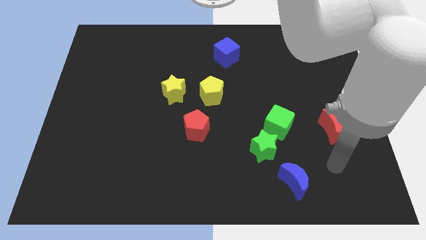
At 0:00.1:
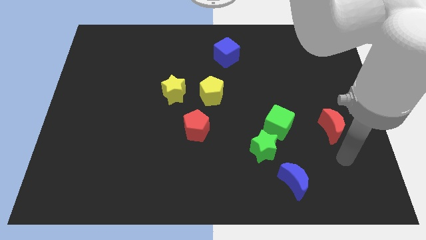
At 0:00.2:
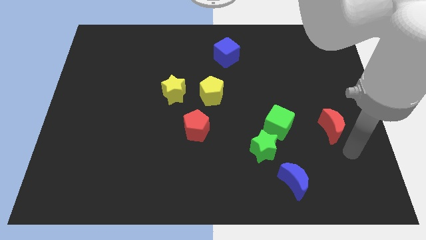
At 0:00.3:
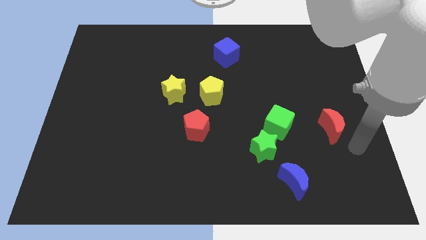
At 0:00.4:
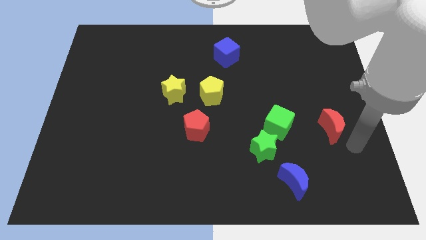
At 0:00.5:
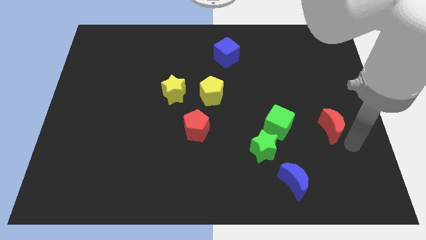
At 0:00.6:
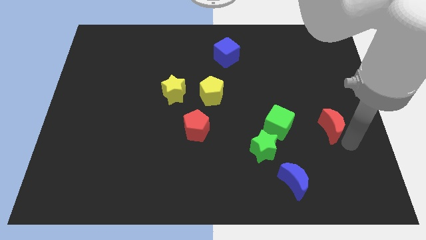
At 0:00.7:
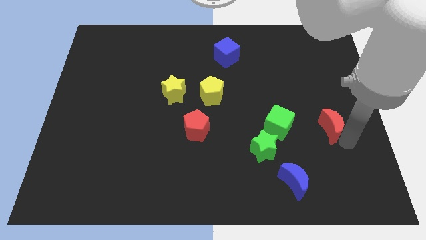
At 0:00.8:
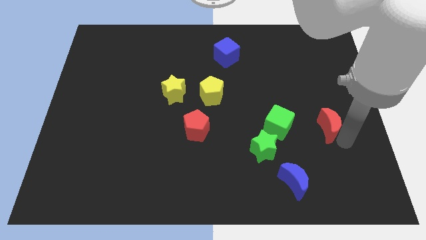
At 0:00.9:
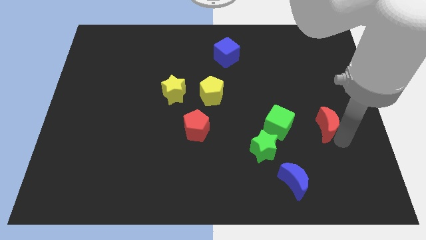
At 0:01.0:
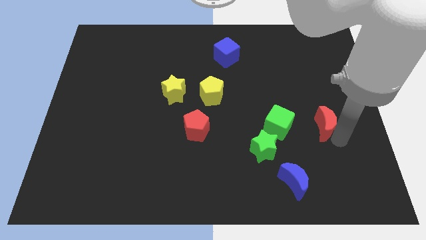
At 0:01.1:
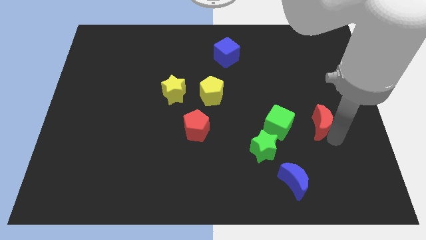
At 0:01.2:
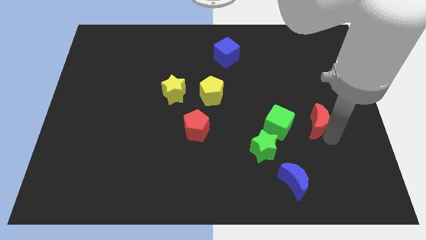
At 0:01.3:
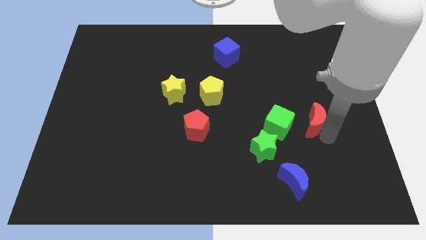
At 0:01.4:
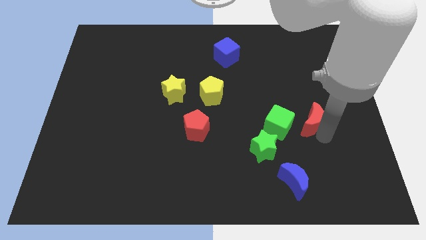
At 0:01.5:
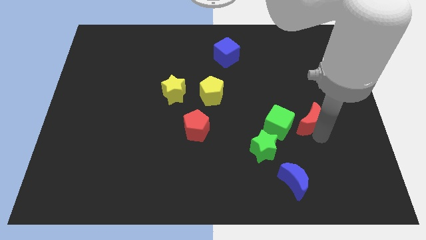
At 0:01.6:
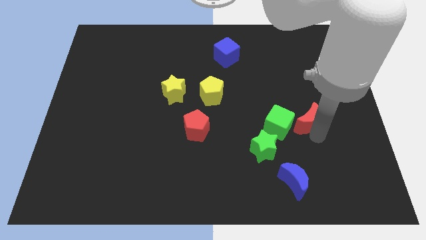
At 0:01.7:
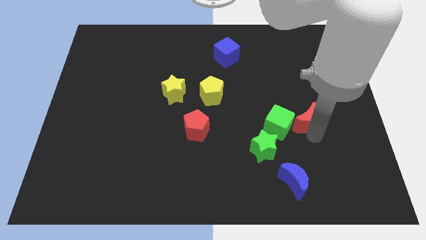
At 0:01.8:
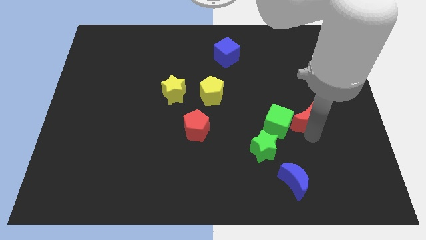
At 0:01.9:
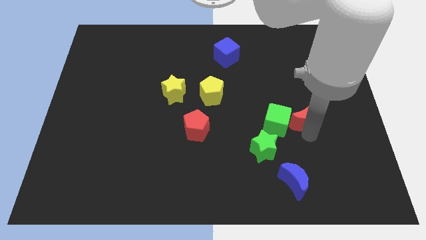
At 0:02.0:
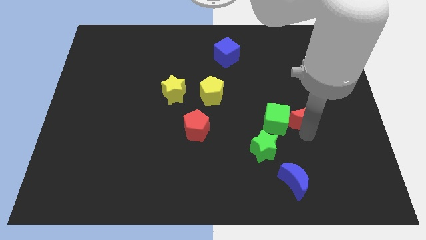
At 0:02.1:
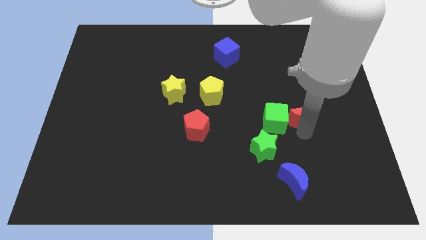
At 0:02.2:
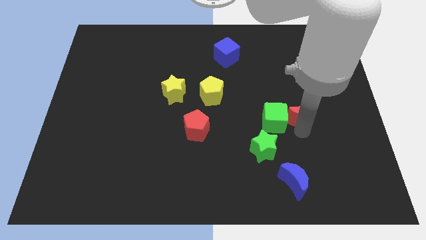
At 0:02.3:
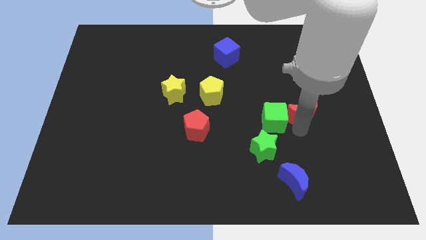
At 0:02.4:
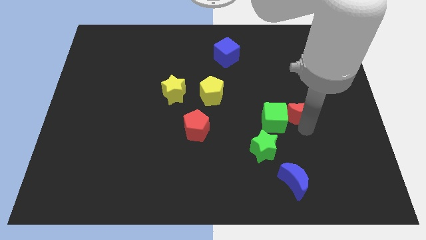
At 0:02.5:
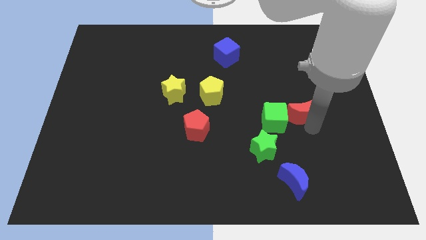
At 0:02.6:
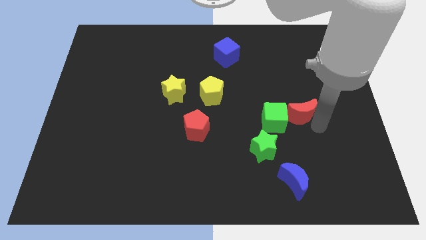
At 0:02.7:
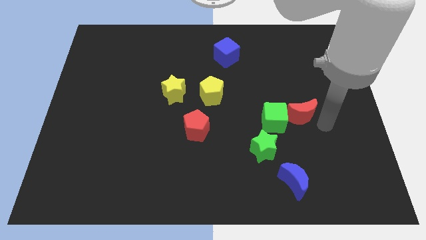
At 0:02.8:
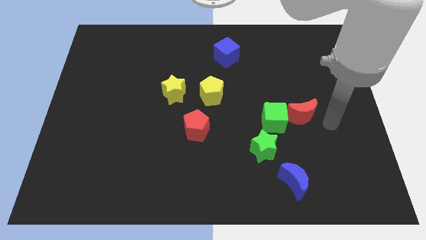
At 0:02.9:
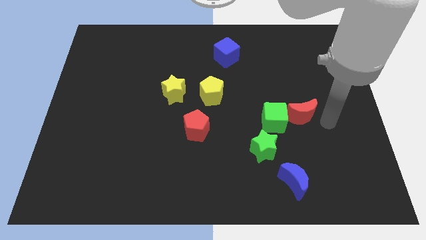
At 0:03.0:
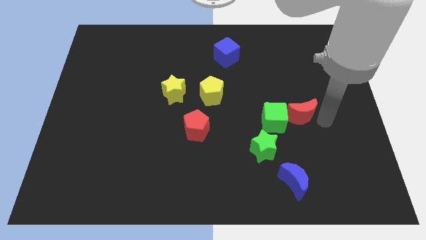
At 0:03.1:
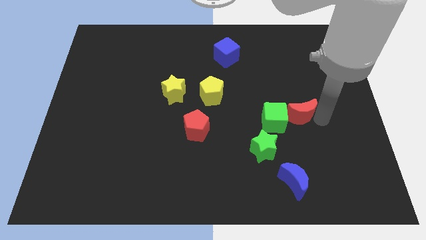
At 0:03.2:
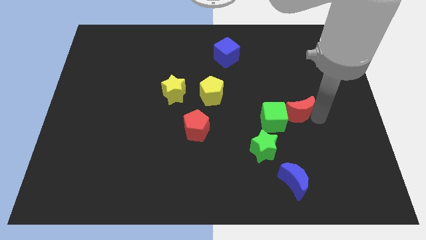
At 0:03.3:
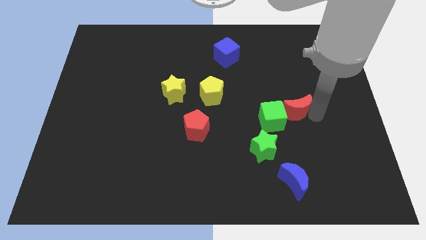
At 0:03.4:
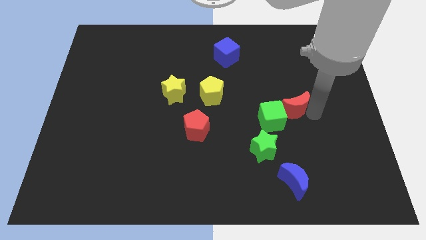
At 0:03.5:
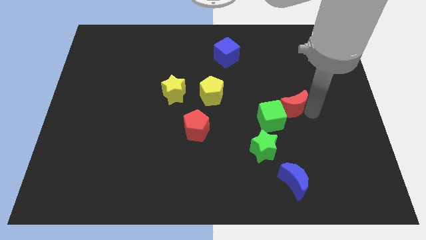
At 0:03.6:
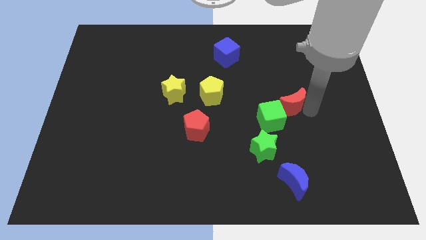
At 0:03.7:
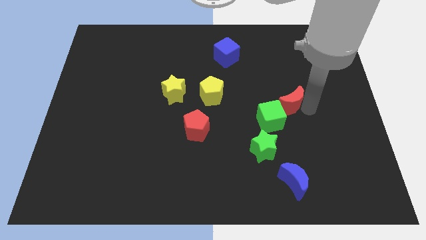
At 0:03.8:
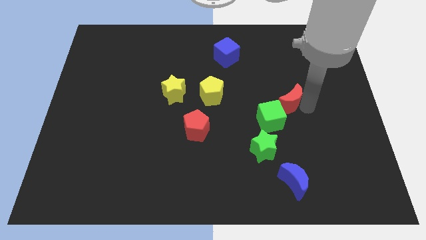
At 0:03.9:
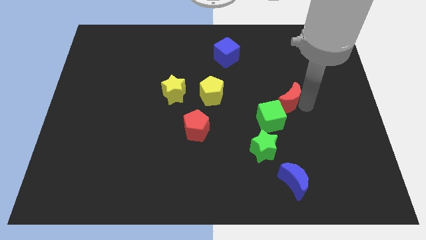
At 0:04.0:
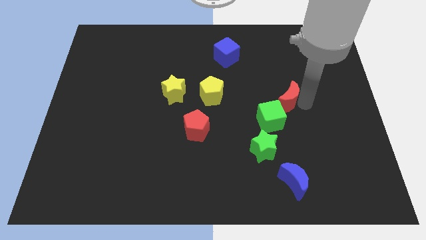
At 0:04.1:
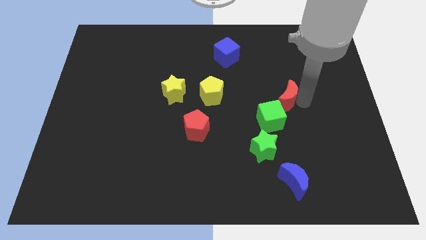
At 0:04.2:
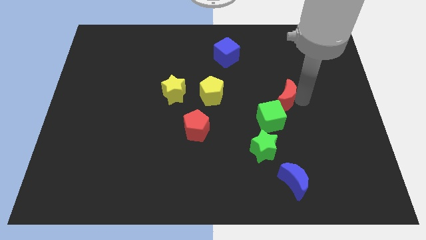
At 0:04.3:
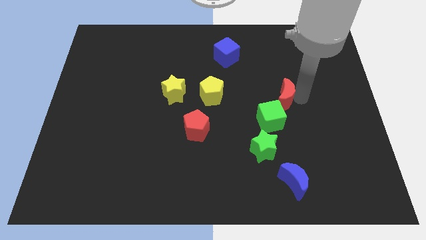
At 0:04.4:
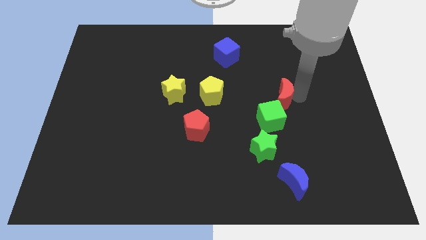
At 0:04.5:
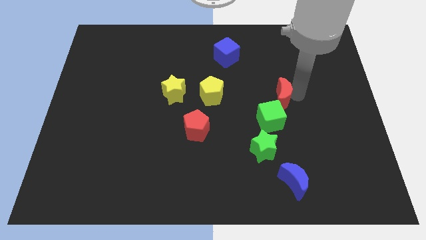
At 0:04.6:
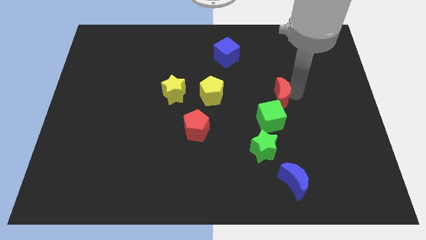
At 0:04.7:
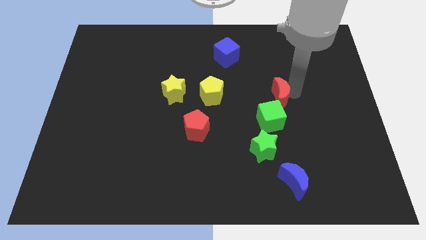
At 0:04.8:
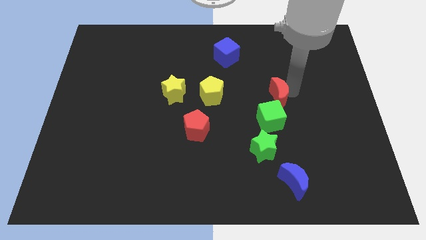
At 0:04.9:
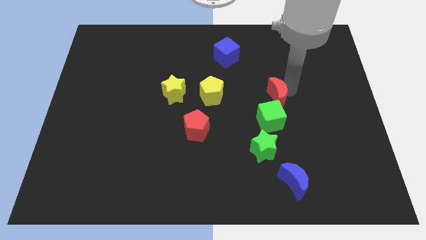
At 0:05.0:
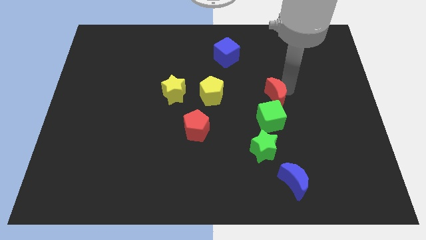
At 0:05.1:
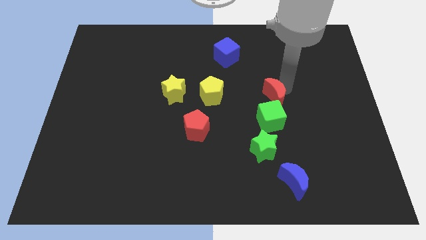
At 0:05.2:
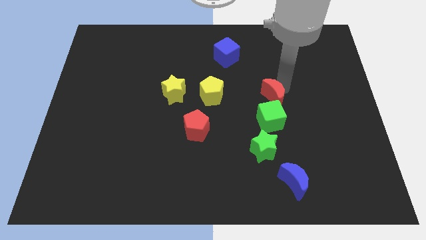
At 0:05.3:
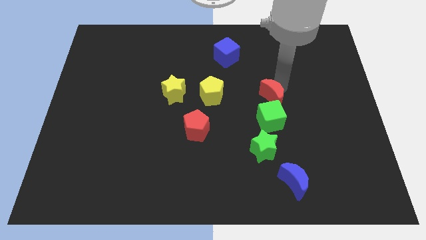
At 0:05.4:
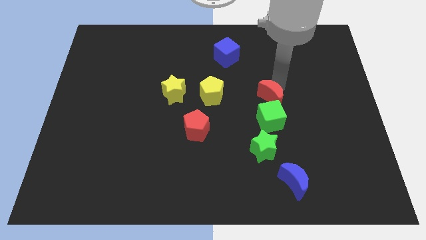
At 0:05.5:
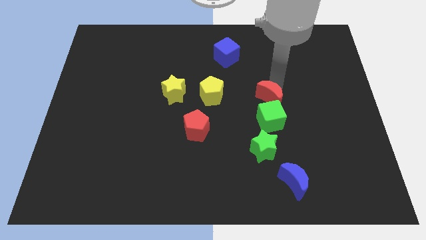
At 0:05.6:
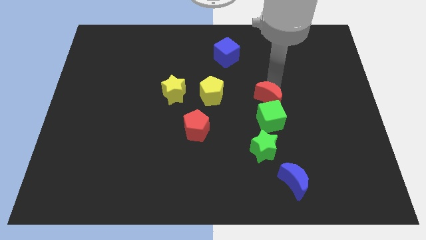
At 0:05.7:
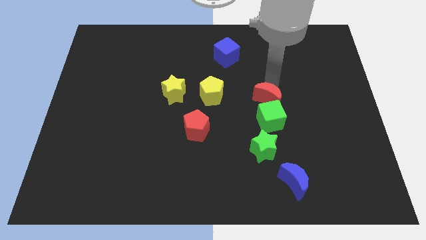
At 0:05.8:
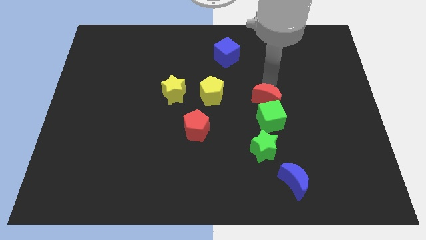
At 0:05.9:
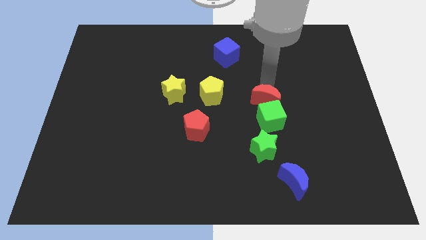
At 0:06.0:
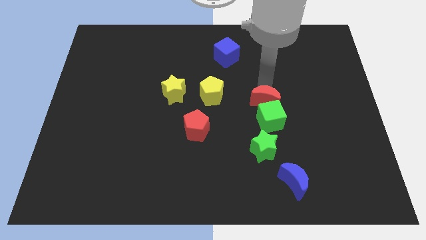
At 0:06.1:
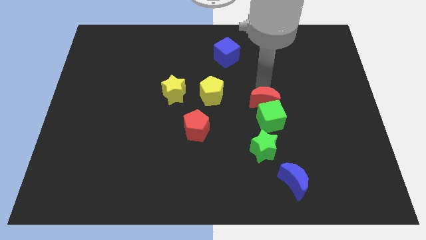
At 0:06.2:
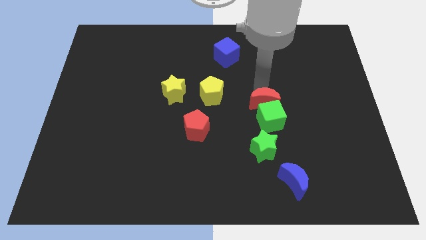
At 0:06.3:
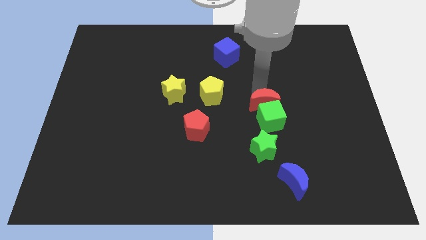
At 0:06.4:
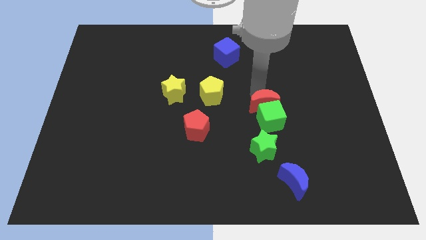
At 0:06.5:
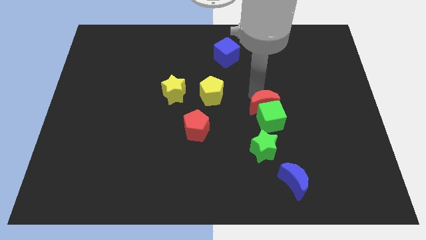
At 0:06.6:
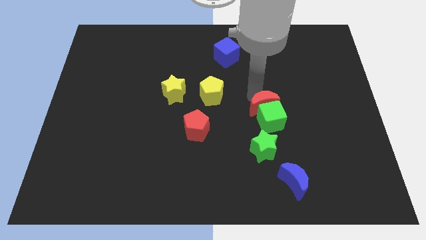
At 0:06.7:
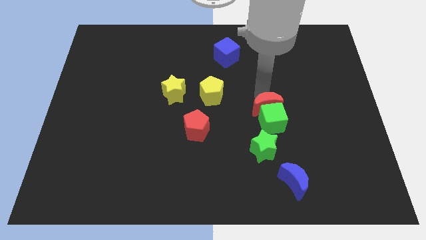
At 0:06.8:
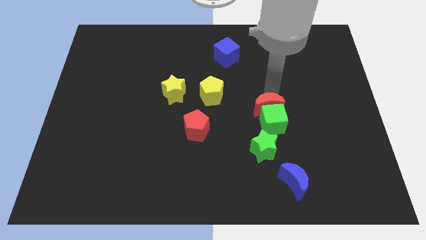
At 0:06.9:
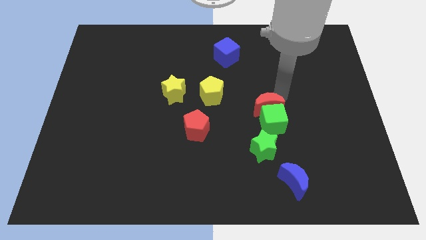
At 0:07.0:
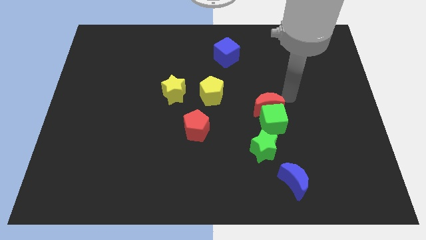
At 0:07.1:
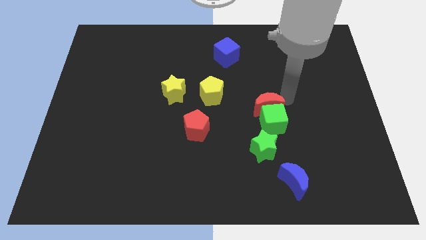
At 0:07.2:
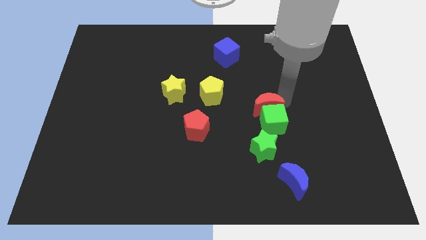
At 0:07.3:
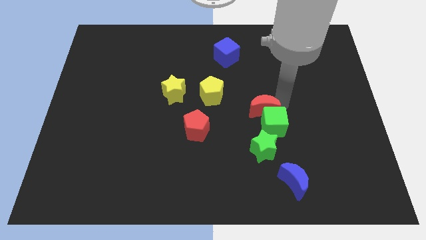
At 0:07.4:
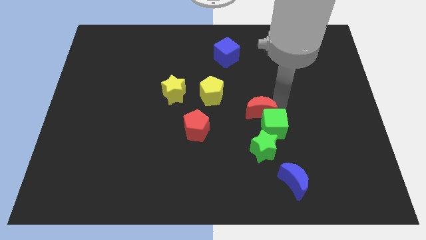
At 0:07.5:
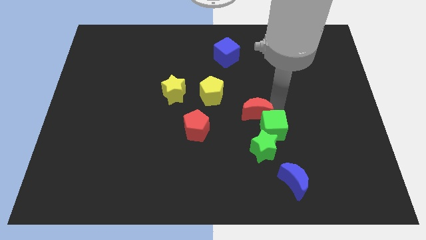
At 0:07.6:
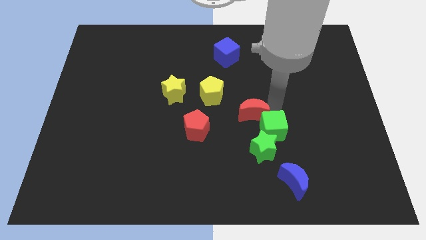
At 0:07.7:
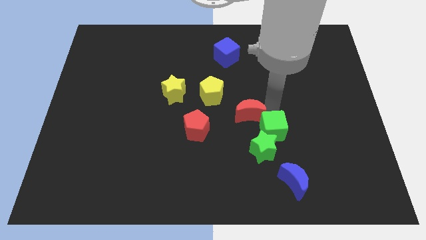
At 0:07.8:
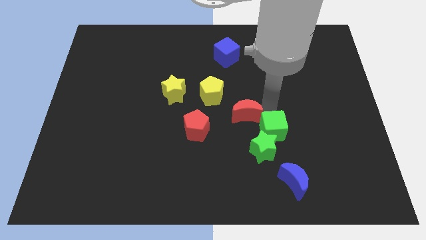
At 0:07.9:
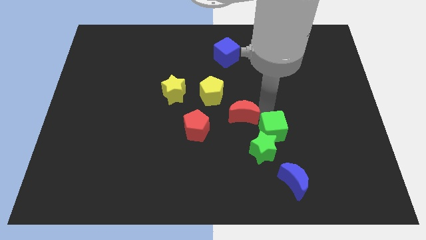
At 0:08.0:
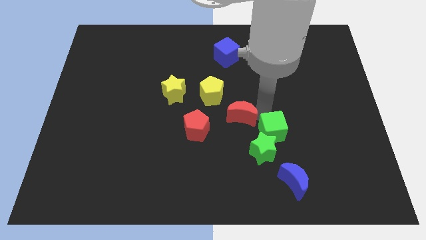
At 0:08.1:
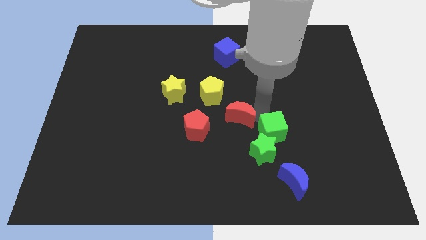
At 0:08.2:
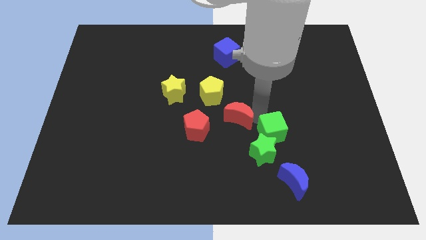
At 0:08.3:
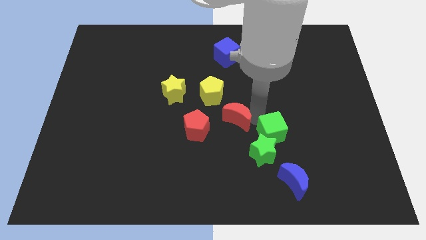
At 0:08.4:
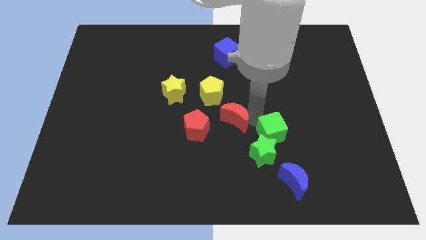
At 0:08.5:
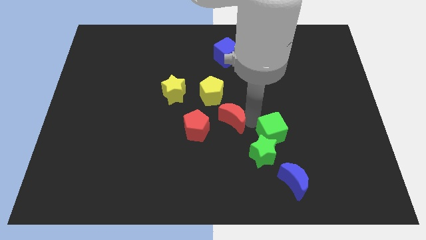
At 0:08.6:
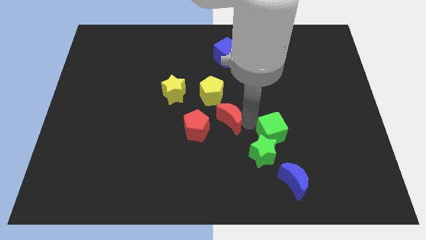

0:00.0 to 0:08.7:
slide the red moon to the bottom side of the yellow pentagon
